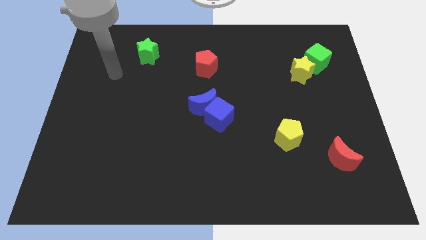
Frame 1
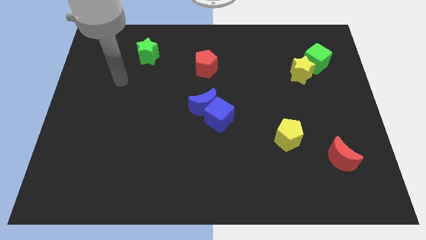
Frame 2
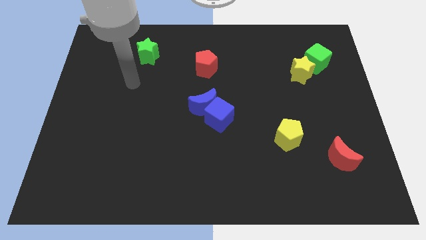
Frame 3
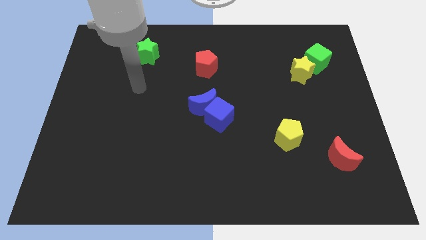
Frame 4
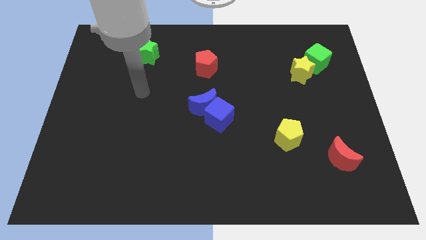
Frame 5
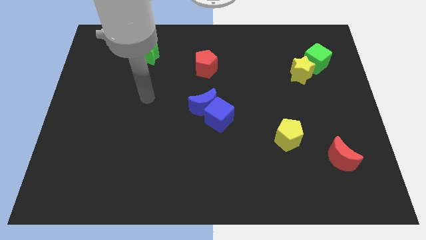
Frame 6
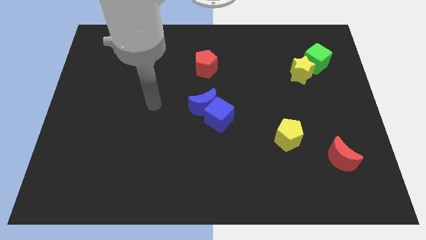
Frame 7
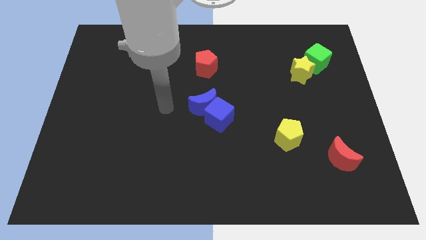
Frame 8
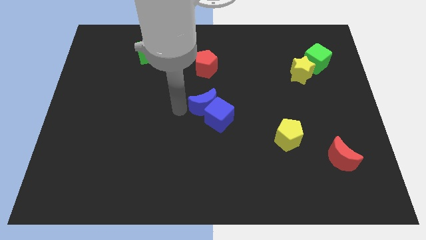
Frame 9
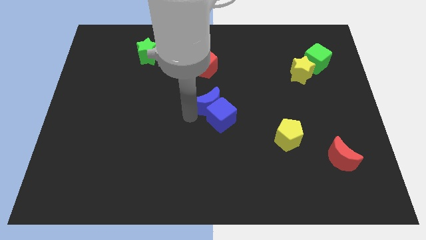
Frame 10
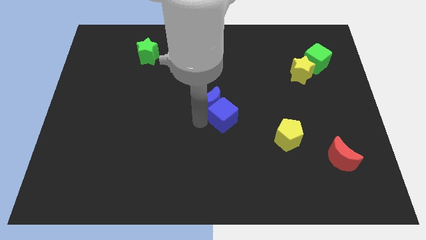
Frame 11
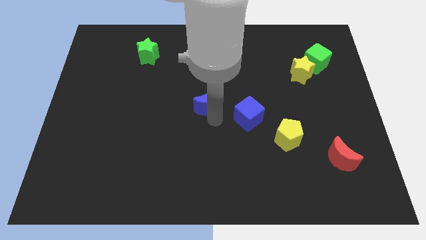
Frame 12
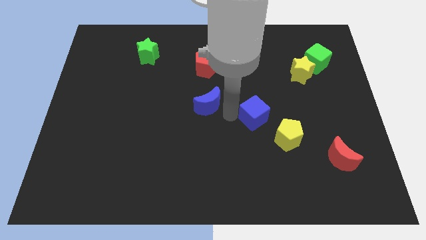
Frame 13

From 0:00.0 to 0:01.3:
move the blue moon away from the blue cube

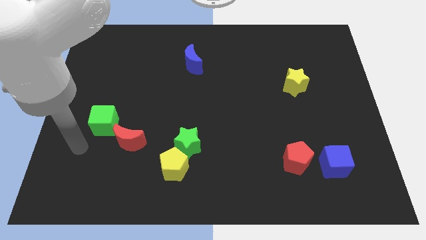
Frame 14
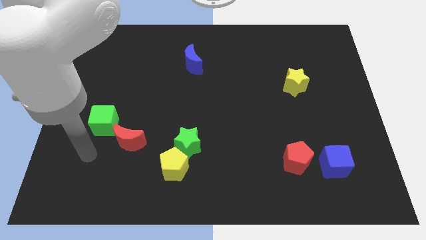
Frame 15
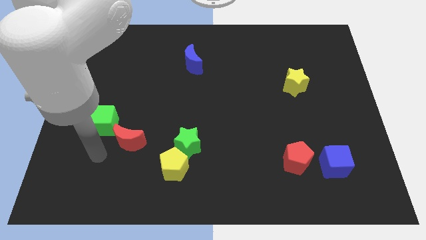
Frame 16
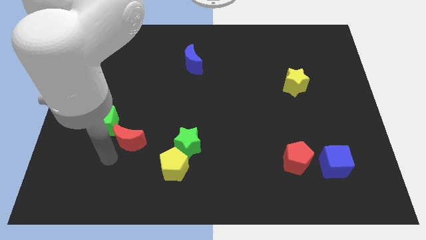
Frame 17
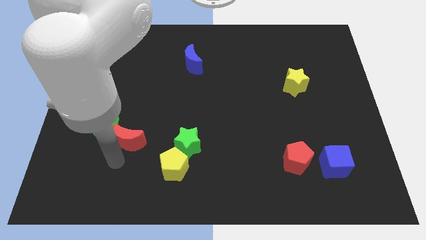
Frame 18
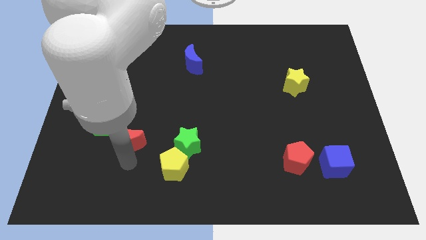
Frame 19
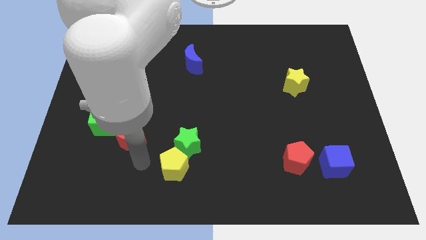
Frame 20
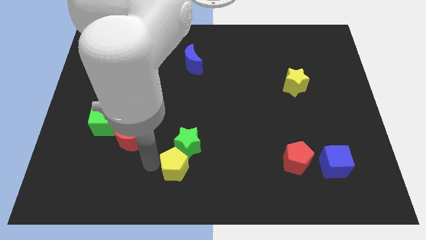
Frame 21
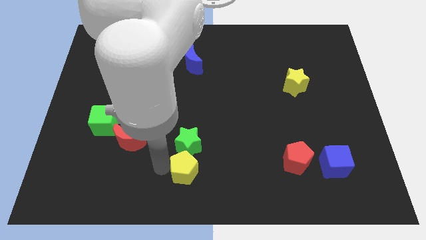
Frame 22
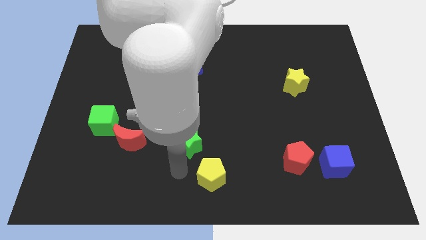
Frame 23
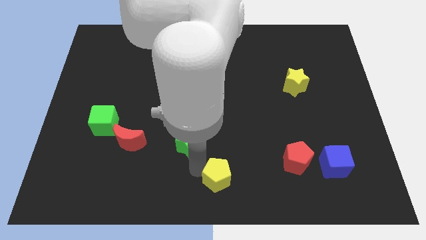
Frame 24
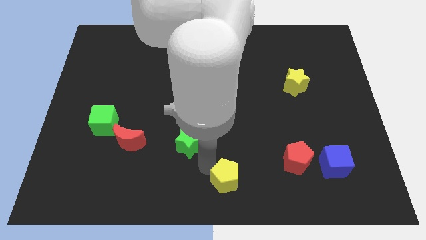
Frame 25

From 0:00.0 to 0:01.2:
separate the green star from the yellow pentagon

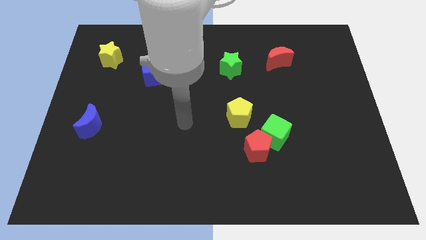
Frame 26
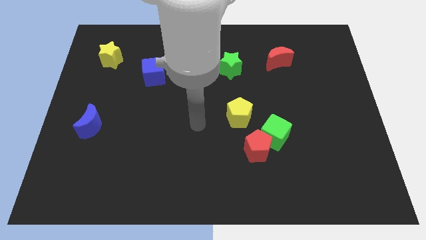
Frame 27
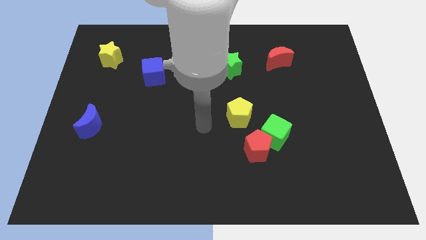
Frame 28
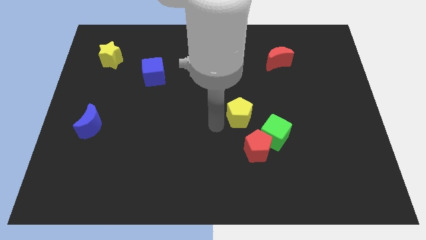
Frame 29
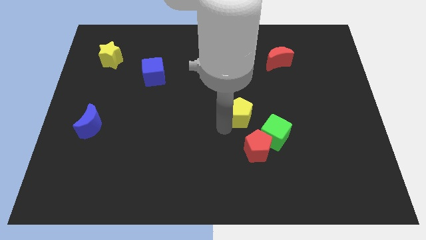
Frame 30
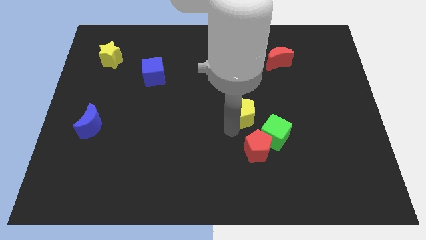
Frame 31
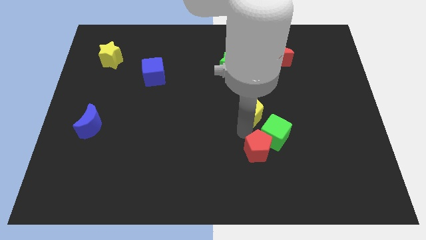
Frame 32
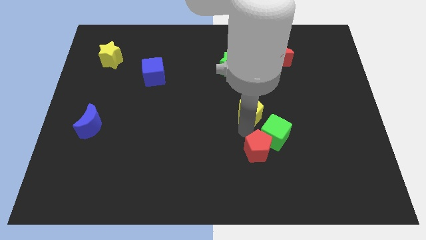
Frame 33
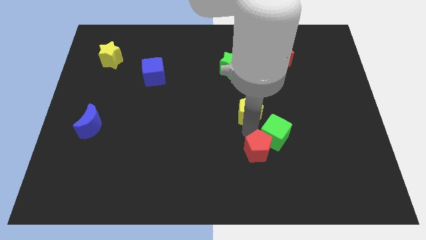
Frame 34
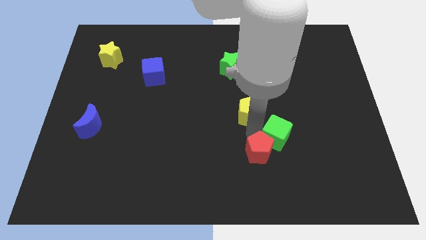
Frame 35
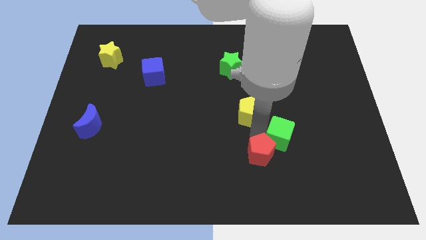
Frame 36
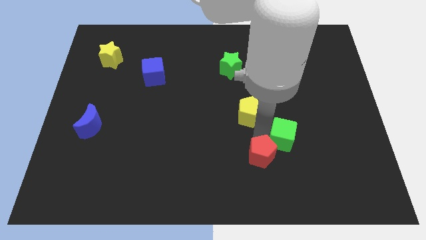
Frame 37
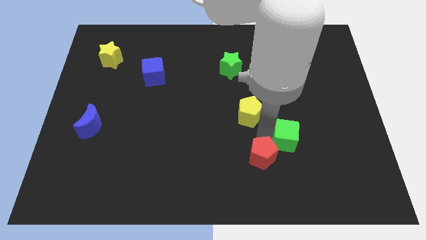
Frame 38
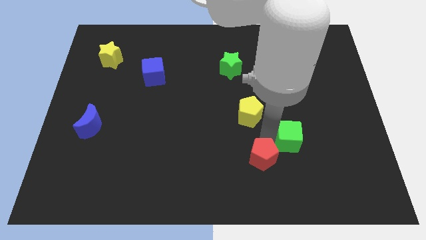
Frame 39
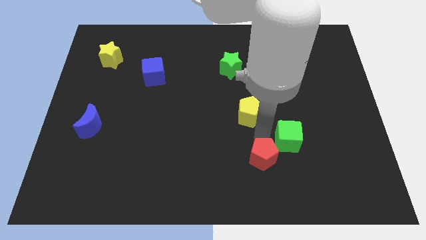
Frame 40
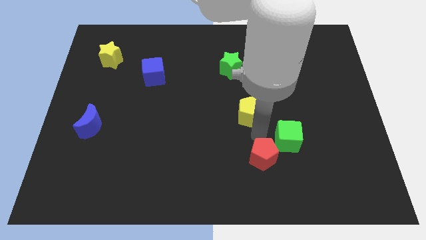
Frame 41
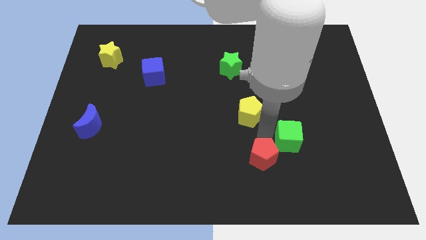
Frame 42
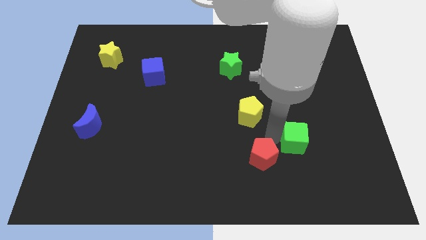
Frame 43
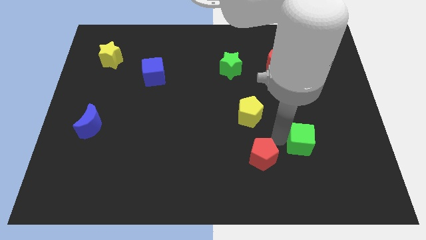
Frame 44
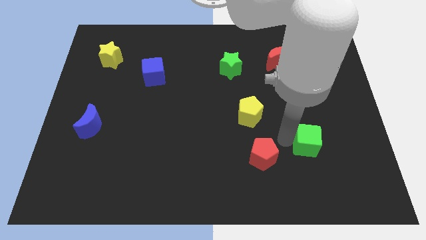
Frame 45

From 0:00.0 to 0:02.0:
separate the green cube from the red pentagon and yellow pentagon

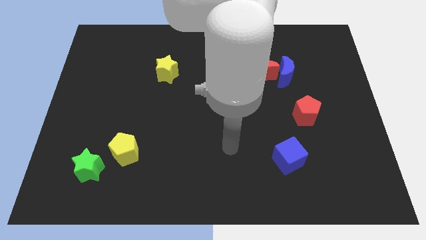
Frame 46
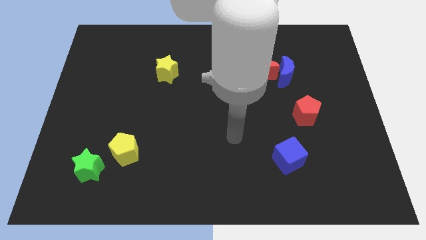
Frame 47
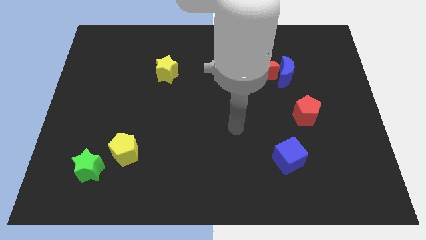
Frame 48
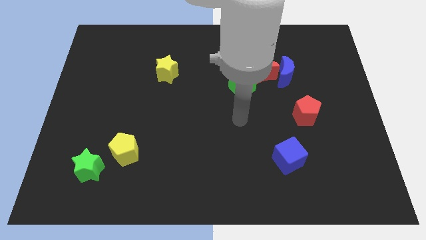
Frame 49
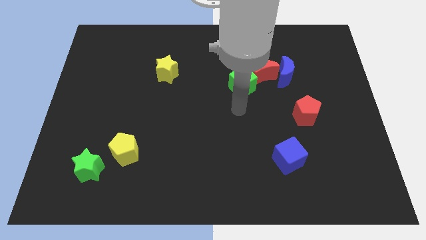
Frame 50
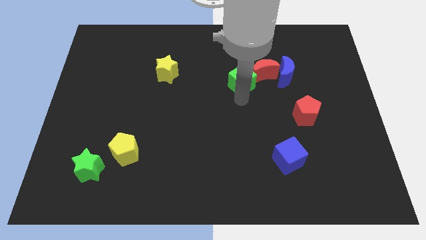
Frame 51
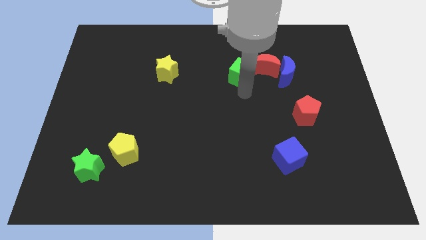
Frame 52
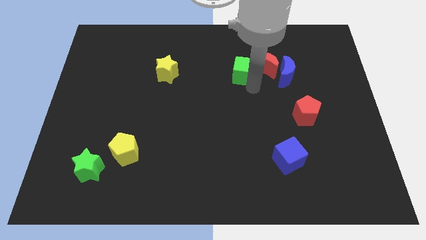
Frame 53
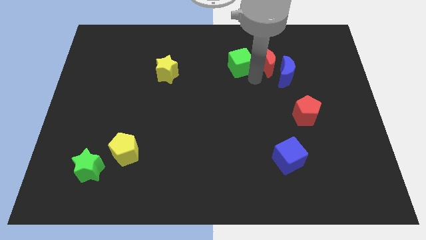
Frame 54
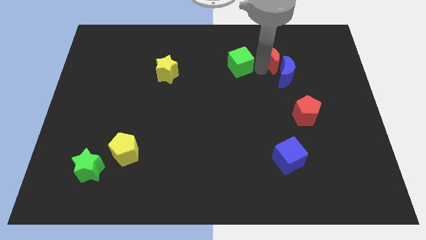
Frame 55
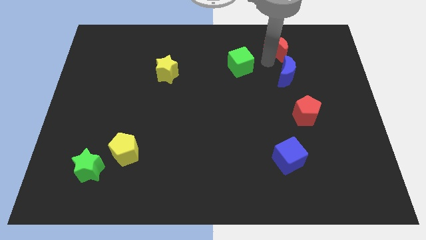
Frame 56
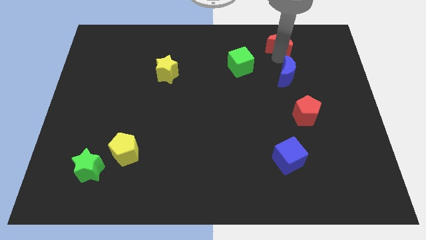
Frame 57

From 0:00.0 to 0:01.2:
separate the blue moon from the red moon

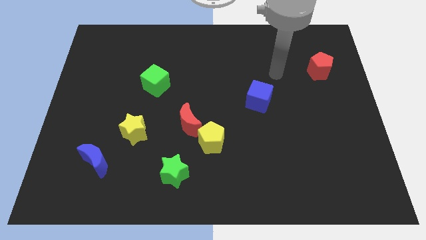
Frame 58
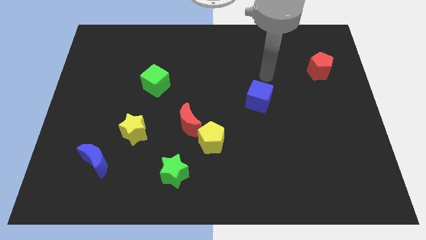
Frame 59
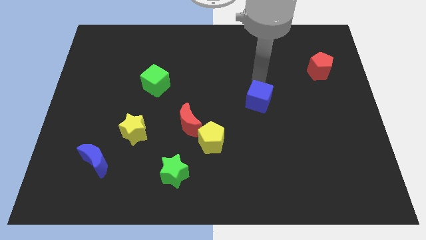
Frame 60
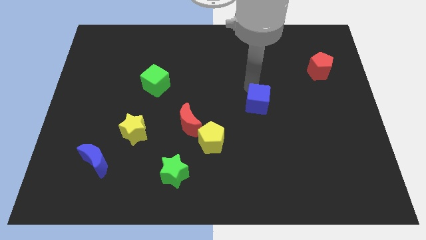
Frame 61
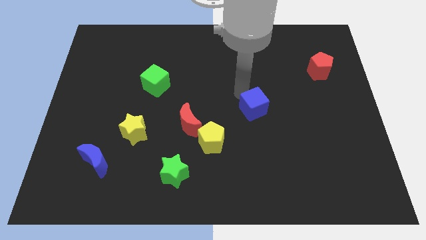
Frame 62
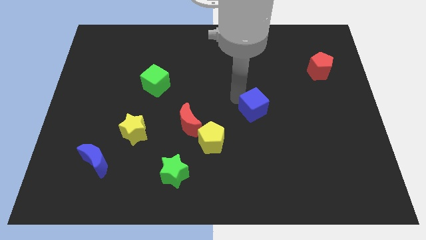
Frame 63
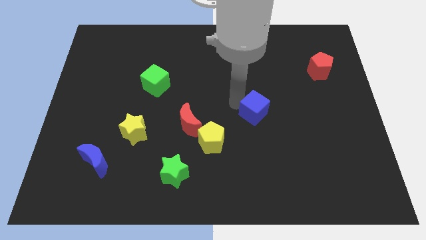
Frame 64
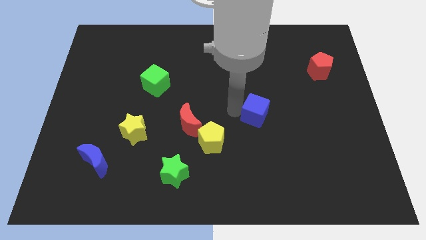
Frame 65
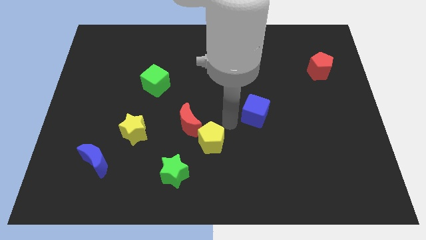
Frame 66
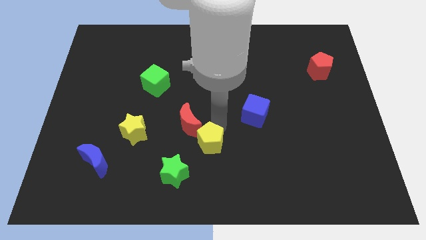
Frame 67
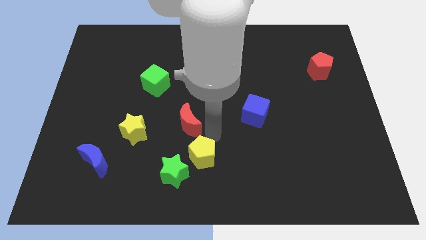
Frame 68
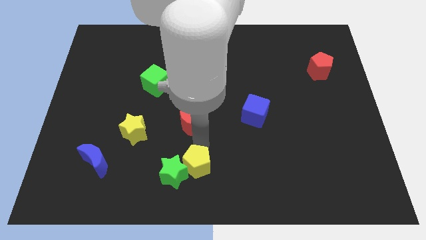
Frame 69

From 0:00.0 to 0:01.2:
separate the red moon from the yellow pentagon

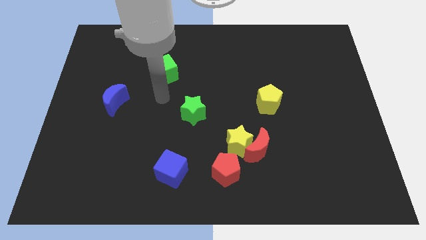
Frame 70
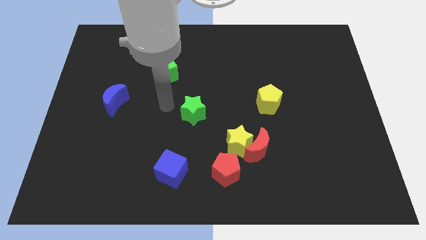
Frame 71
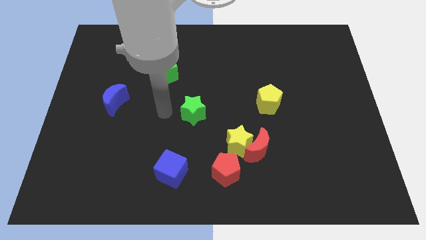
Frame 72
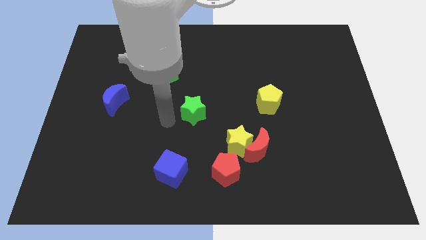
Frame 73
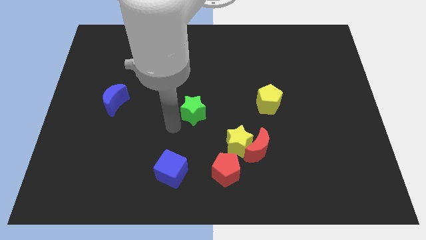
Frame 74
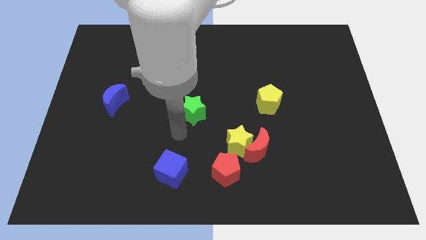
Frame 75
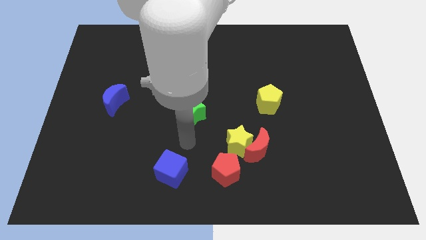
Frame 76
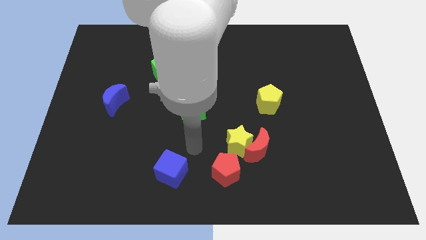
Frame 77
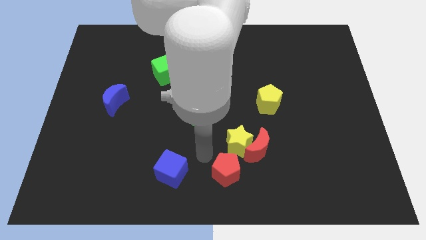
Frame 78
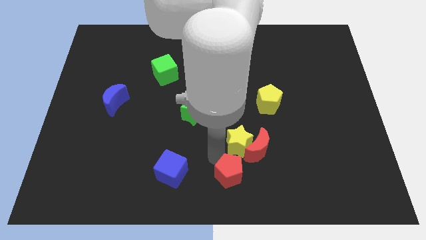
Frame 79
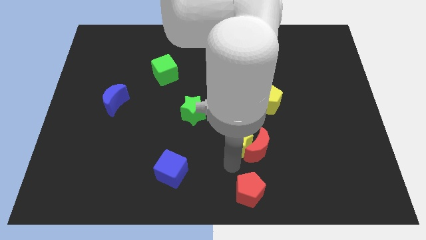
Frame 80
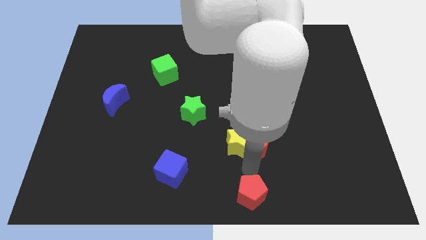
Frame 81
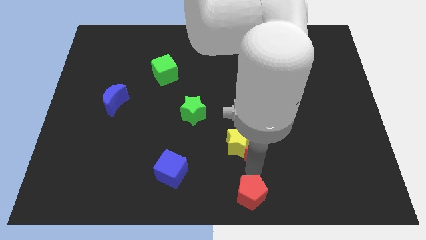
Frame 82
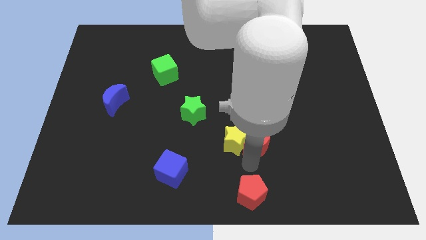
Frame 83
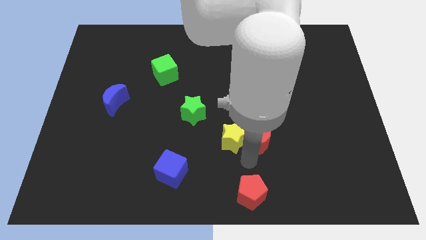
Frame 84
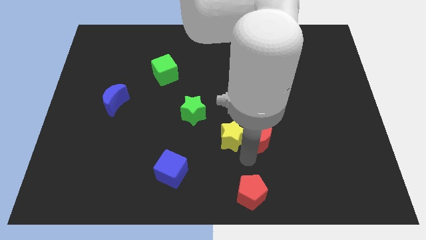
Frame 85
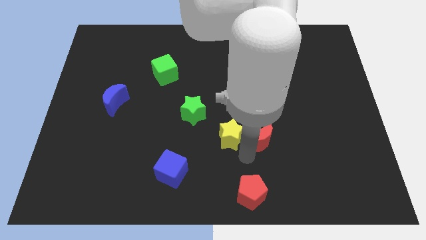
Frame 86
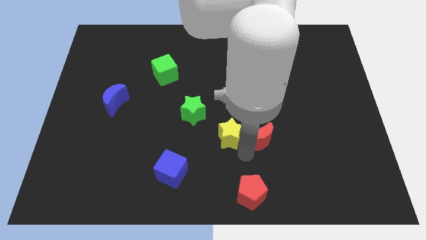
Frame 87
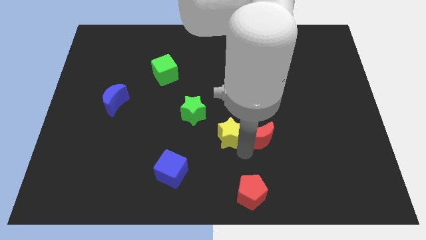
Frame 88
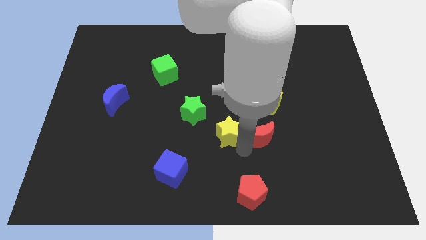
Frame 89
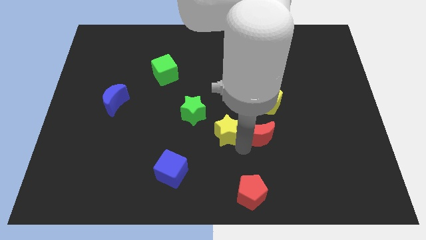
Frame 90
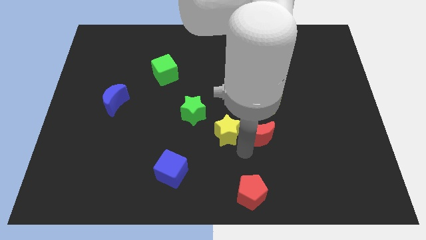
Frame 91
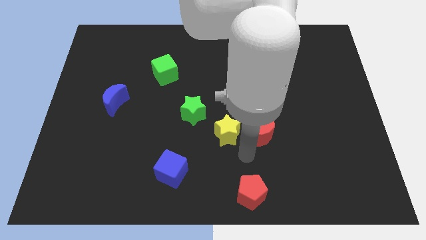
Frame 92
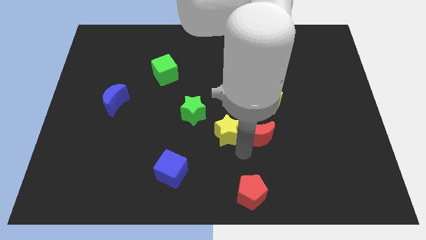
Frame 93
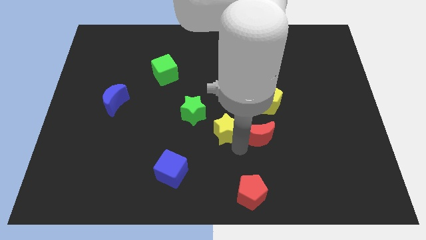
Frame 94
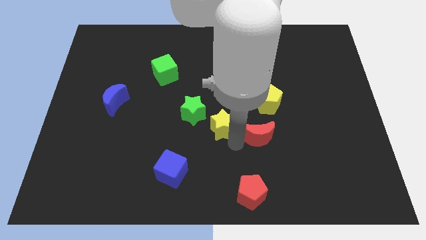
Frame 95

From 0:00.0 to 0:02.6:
move the yellow star away from the red moon and red pentagon

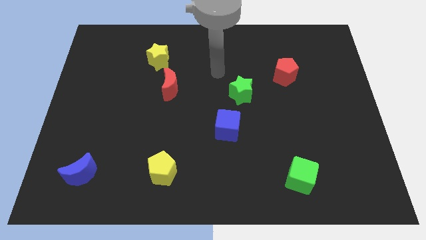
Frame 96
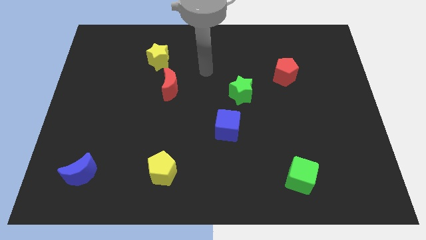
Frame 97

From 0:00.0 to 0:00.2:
separate the red moon from the yellow star
